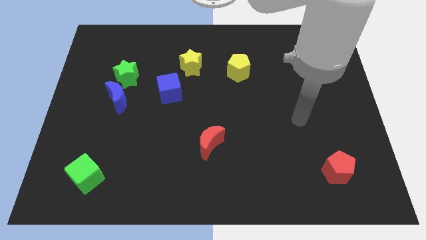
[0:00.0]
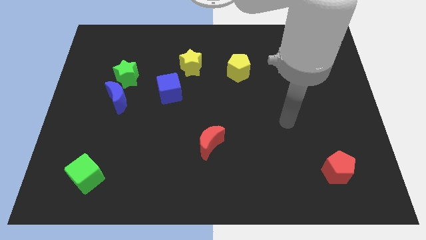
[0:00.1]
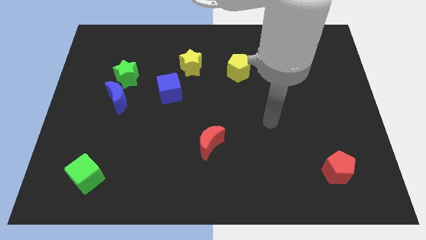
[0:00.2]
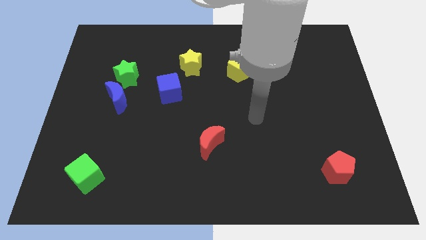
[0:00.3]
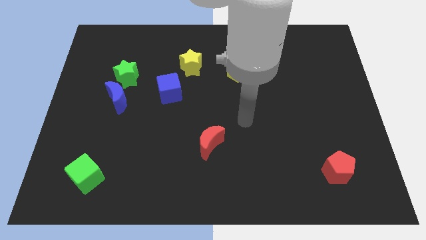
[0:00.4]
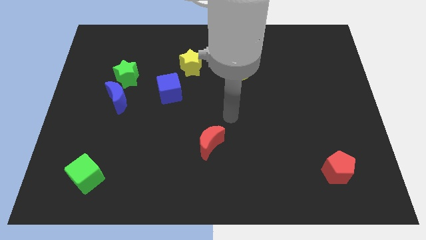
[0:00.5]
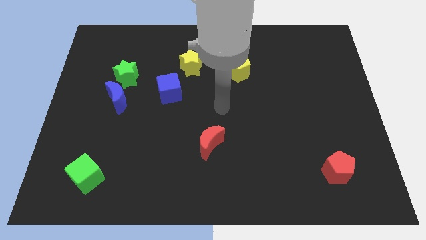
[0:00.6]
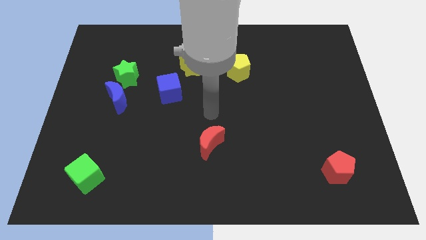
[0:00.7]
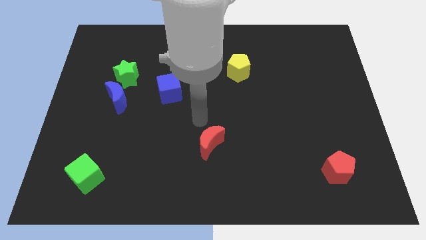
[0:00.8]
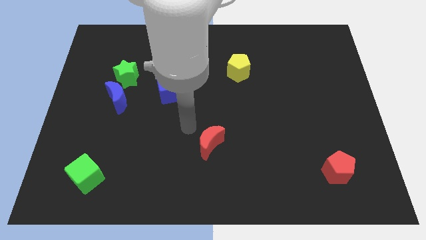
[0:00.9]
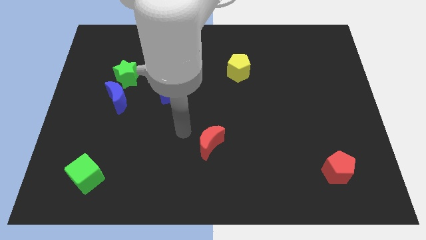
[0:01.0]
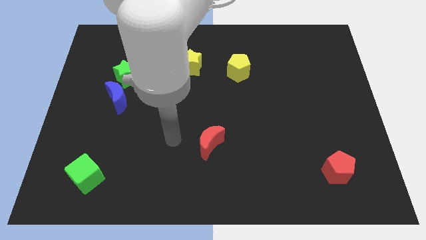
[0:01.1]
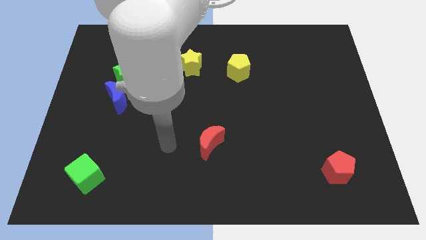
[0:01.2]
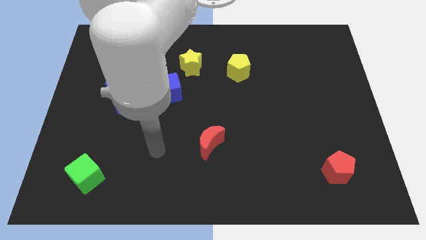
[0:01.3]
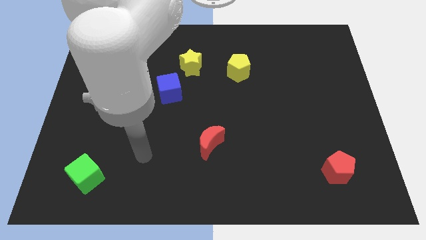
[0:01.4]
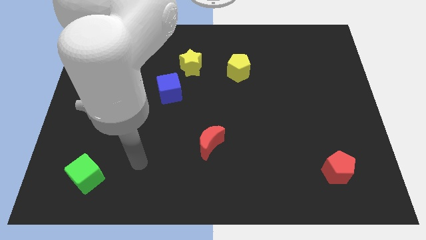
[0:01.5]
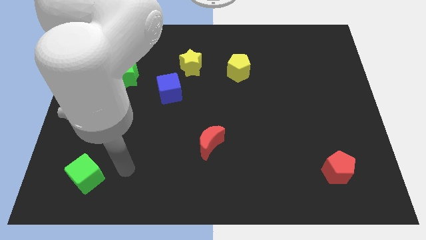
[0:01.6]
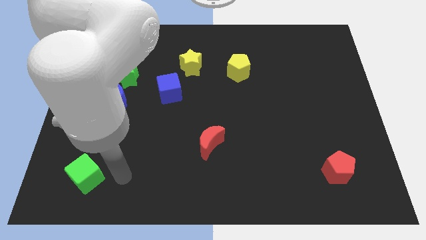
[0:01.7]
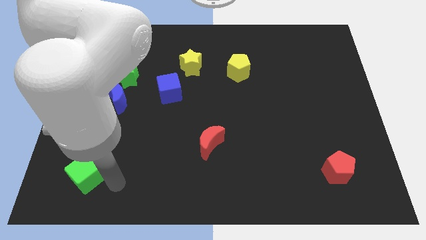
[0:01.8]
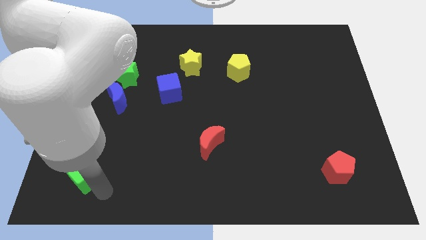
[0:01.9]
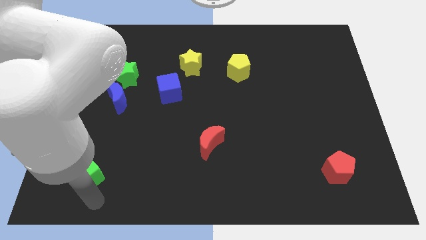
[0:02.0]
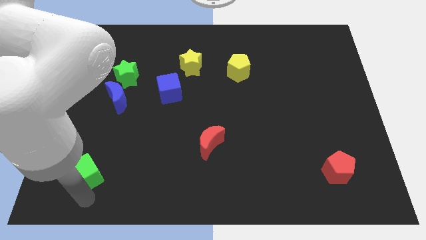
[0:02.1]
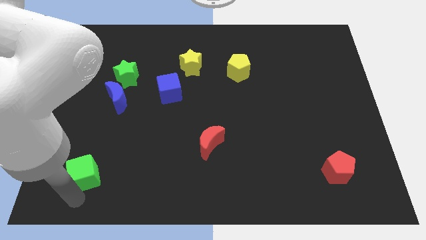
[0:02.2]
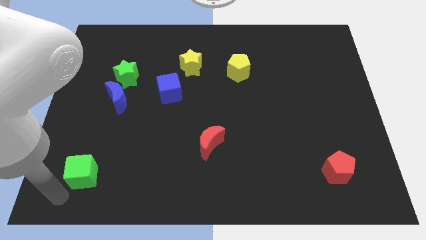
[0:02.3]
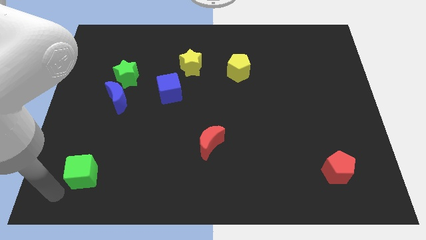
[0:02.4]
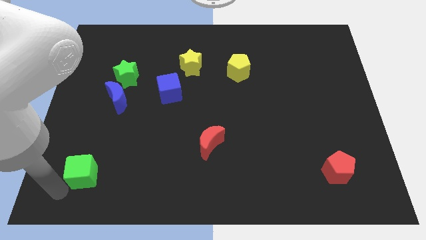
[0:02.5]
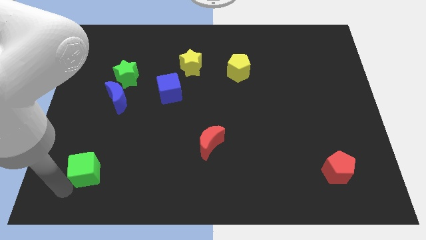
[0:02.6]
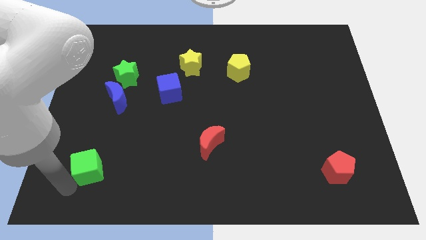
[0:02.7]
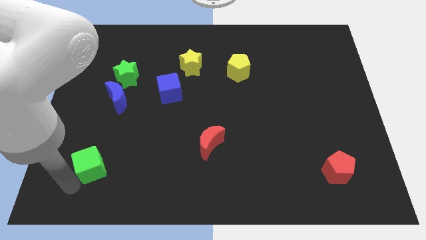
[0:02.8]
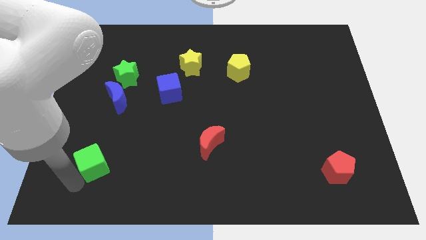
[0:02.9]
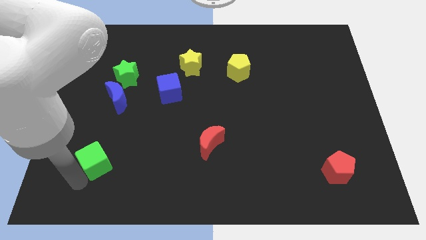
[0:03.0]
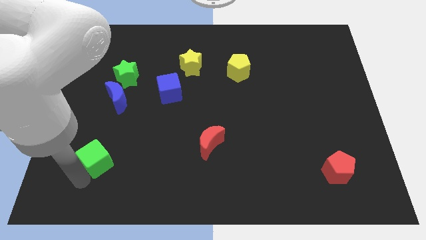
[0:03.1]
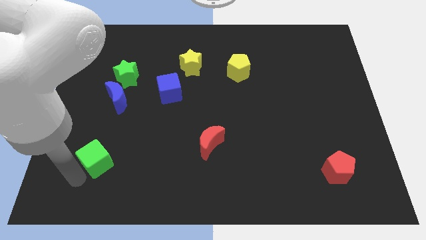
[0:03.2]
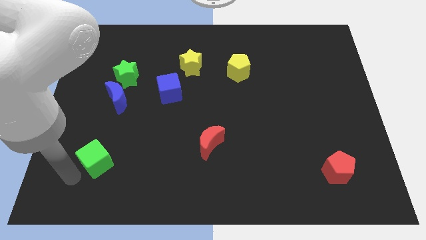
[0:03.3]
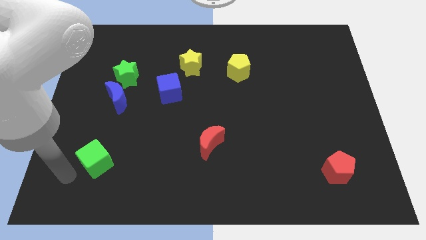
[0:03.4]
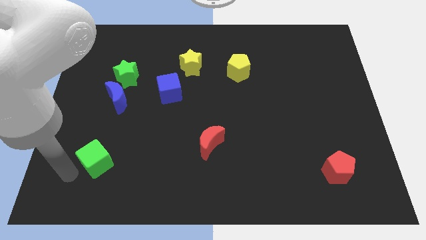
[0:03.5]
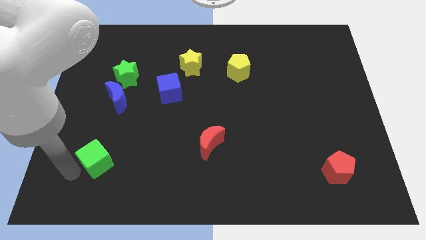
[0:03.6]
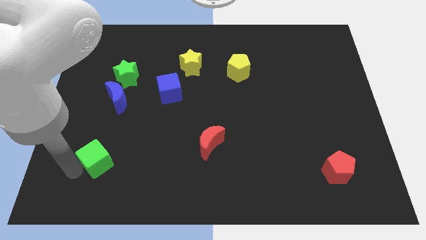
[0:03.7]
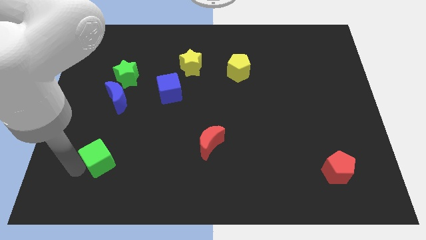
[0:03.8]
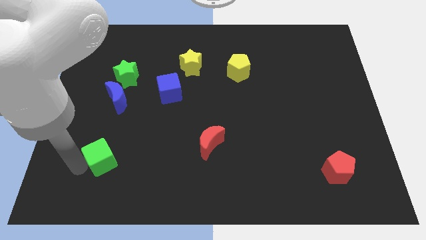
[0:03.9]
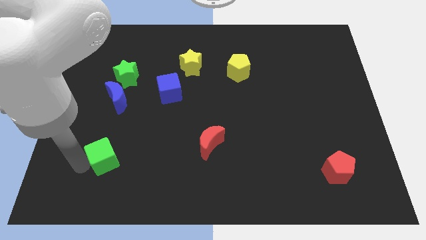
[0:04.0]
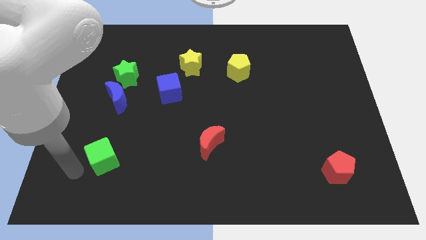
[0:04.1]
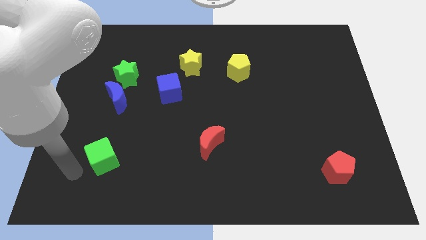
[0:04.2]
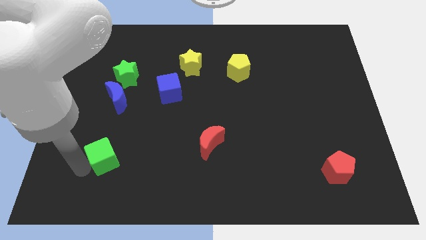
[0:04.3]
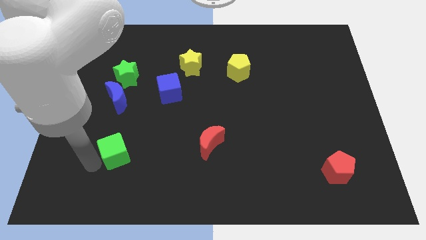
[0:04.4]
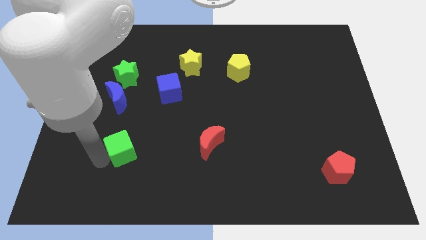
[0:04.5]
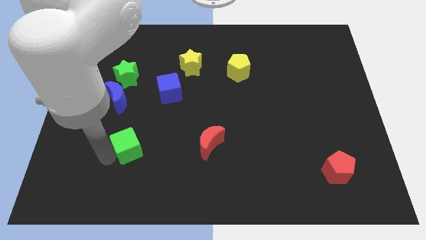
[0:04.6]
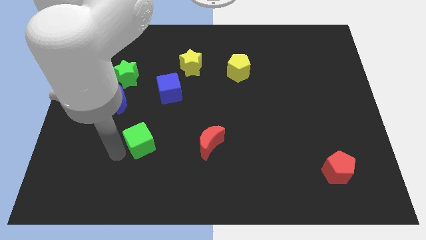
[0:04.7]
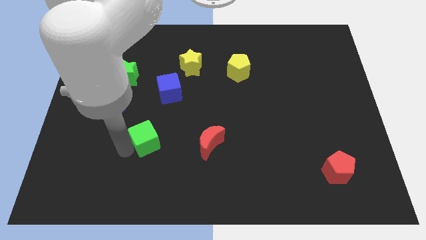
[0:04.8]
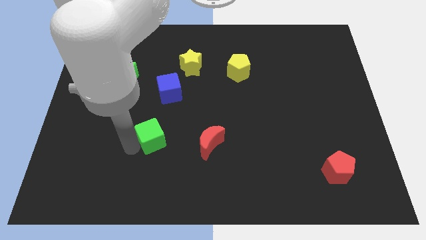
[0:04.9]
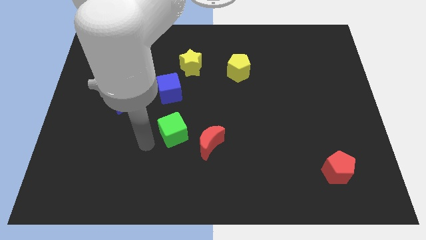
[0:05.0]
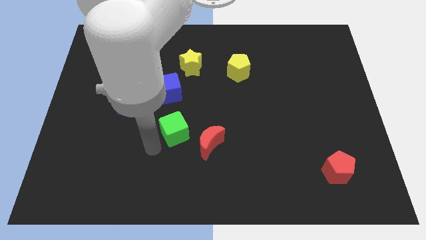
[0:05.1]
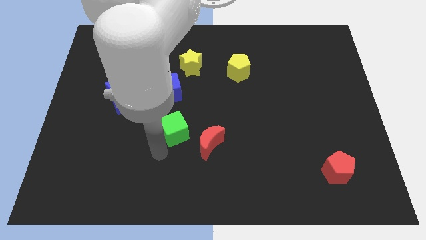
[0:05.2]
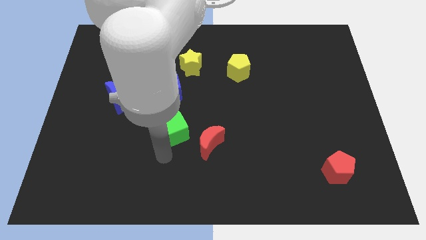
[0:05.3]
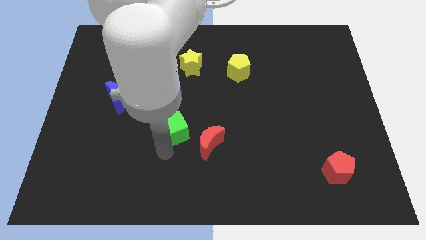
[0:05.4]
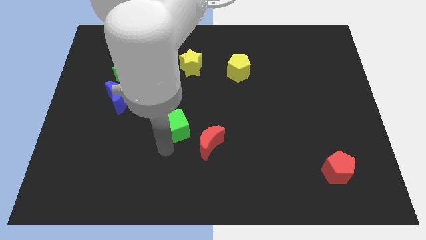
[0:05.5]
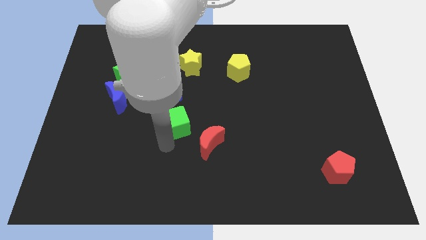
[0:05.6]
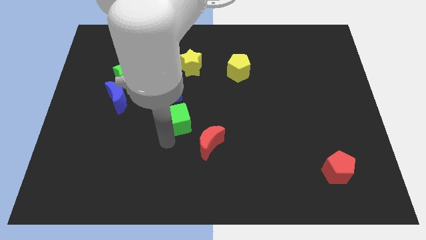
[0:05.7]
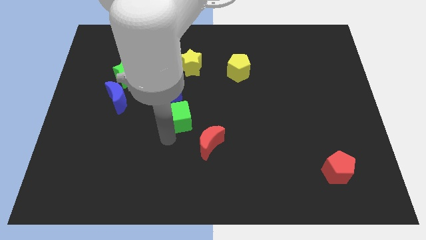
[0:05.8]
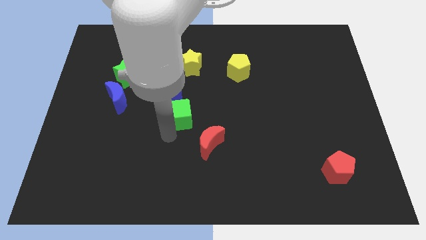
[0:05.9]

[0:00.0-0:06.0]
move the green cube to the bottom side of the yellow star
